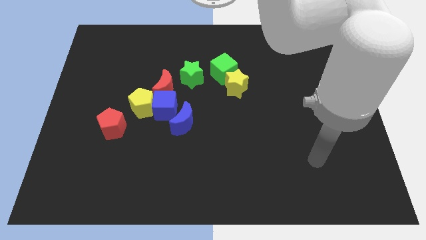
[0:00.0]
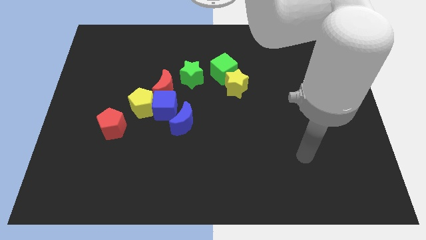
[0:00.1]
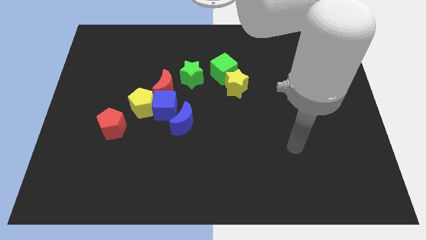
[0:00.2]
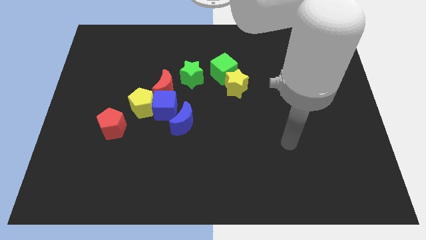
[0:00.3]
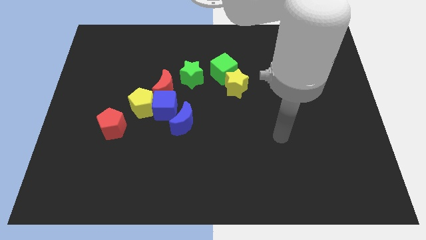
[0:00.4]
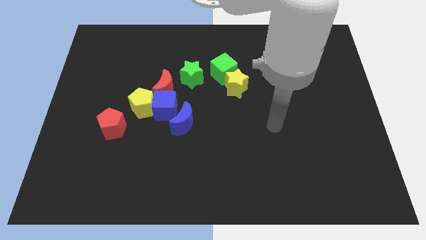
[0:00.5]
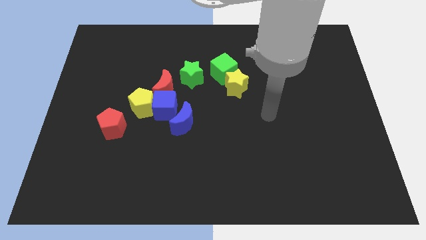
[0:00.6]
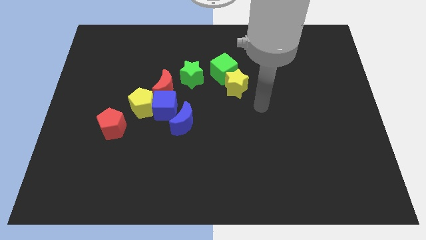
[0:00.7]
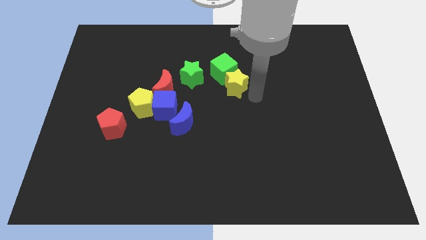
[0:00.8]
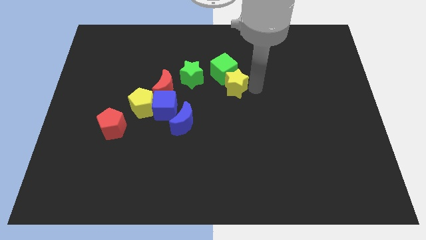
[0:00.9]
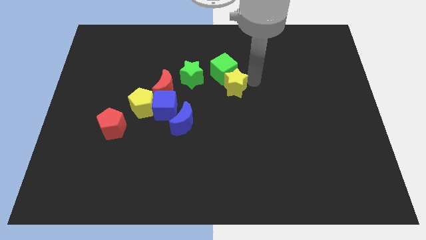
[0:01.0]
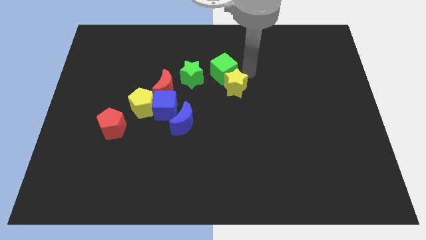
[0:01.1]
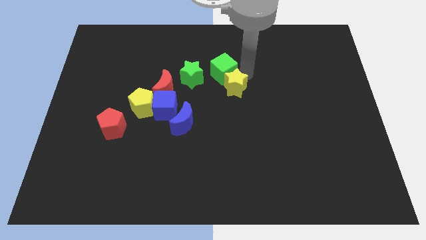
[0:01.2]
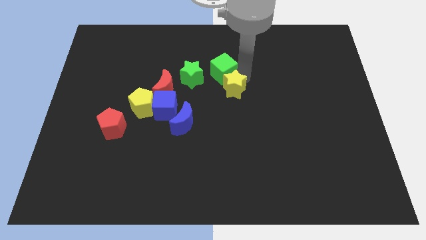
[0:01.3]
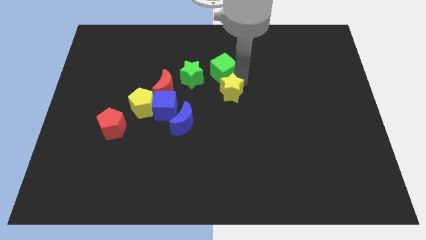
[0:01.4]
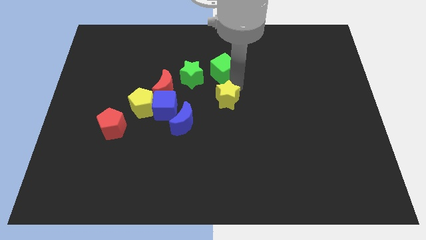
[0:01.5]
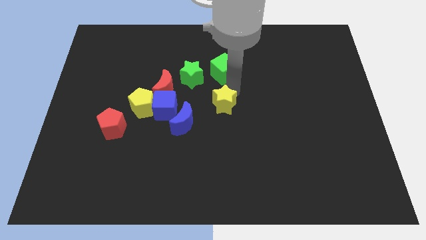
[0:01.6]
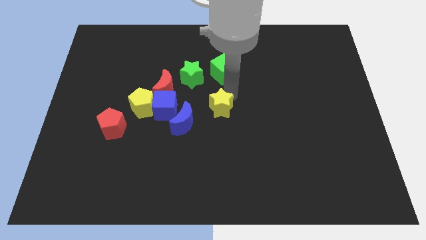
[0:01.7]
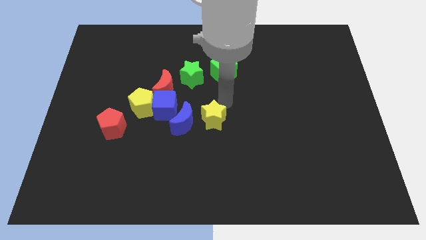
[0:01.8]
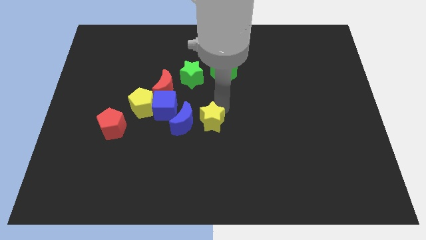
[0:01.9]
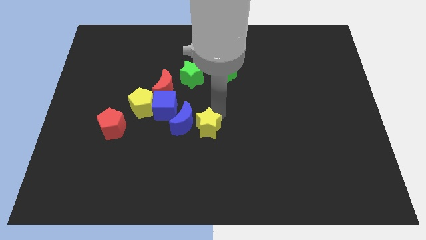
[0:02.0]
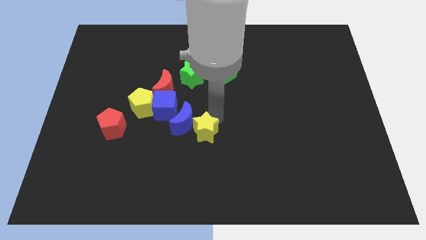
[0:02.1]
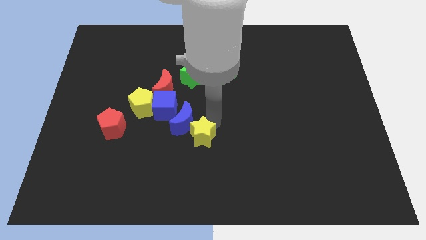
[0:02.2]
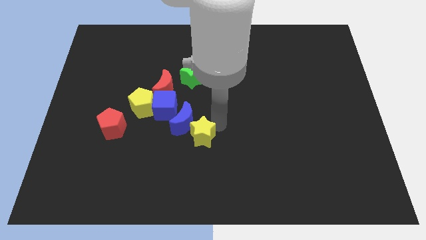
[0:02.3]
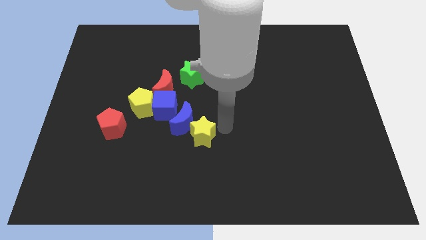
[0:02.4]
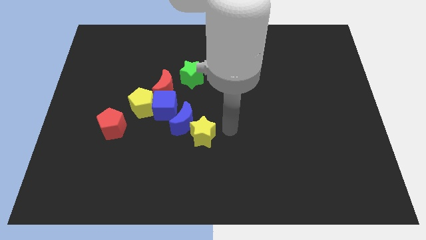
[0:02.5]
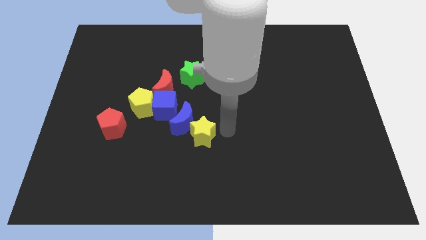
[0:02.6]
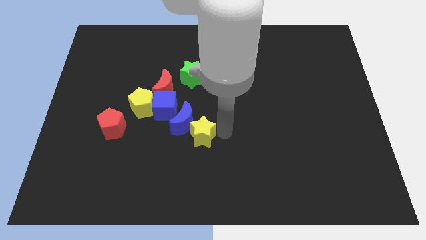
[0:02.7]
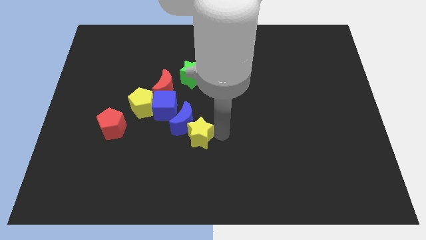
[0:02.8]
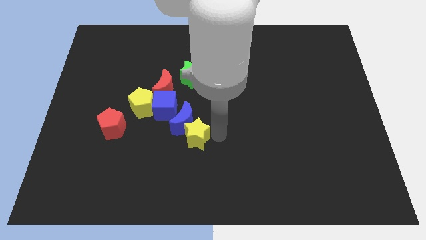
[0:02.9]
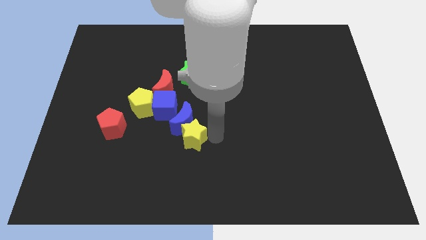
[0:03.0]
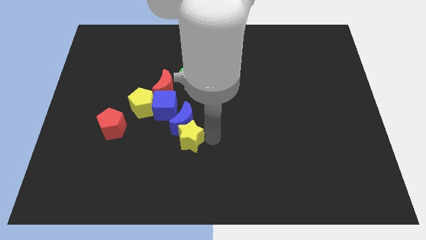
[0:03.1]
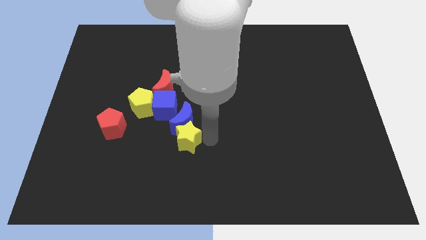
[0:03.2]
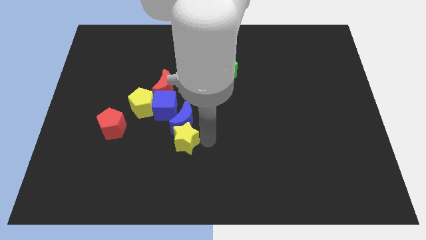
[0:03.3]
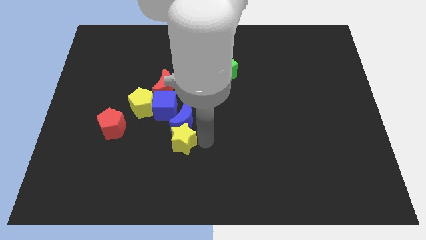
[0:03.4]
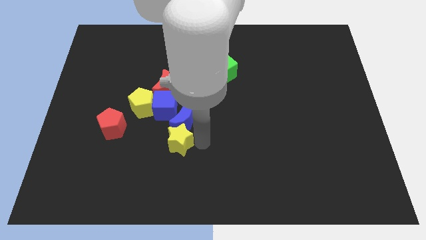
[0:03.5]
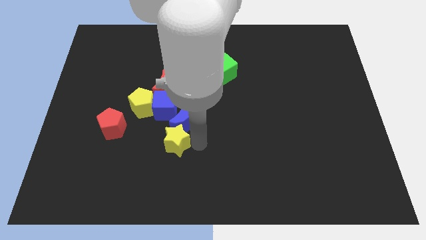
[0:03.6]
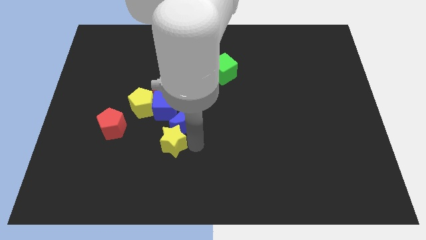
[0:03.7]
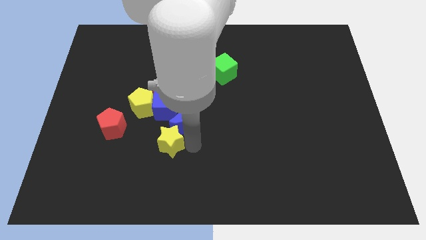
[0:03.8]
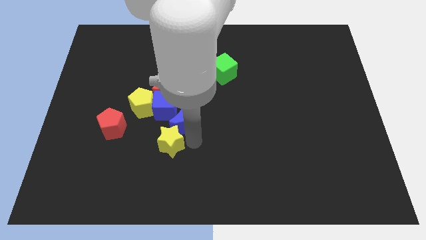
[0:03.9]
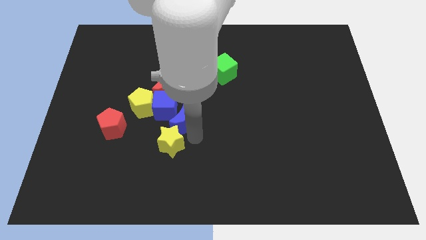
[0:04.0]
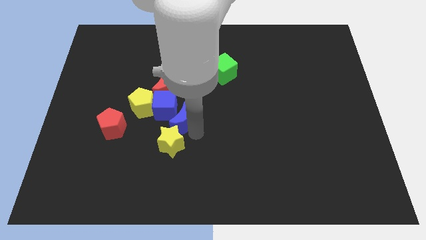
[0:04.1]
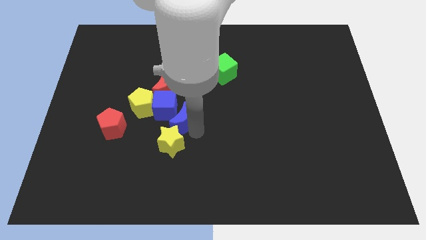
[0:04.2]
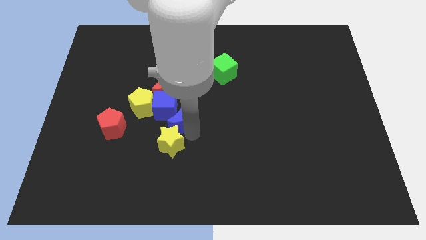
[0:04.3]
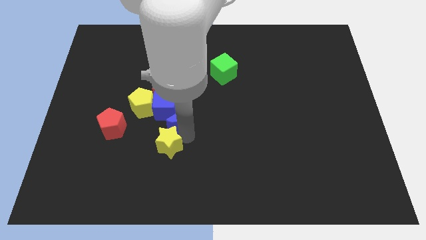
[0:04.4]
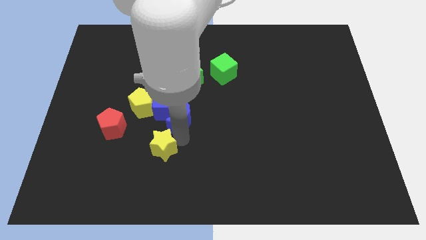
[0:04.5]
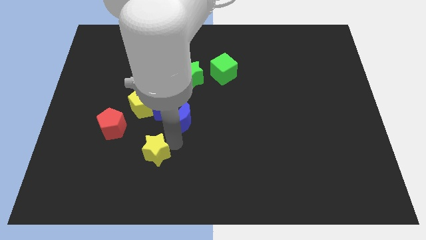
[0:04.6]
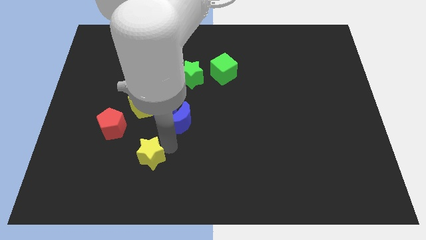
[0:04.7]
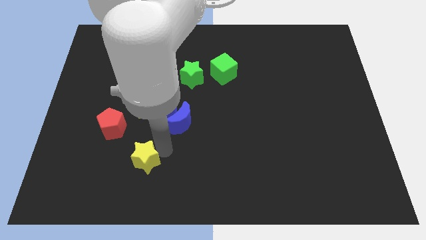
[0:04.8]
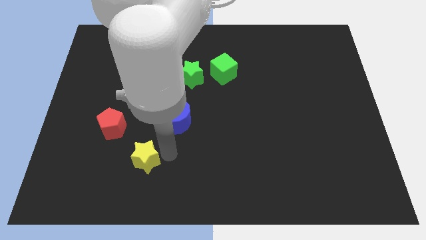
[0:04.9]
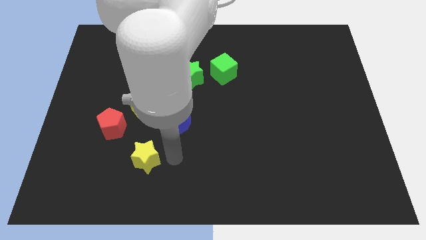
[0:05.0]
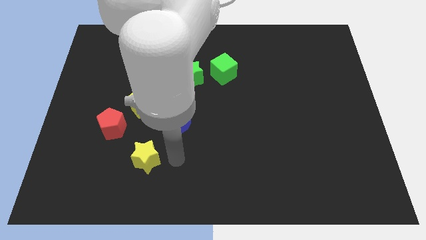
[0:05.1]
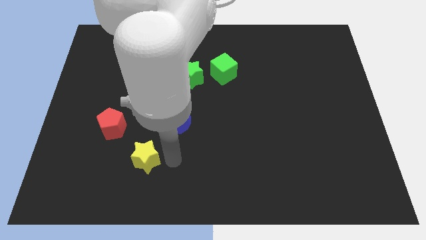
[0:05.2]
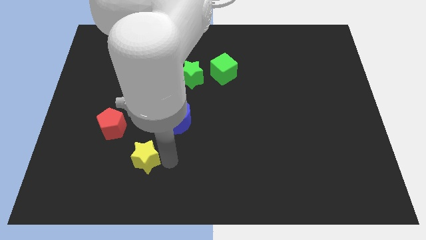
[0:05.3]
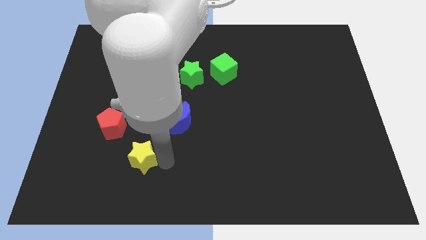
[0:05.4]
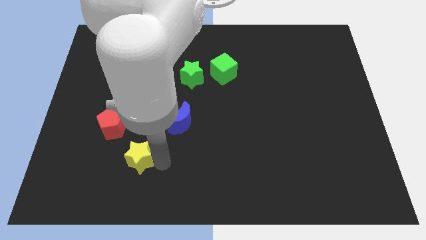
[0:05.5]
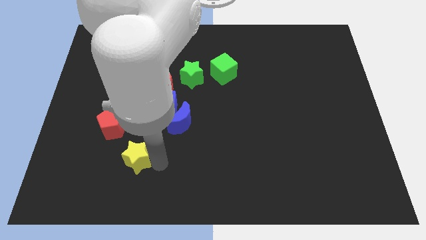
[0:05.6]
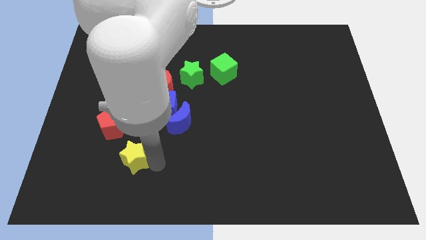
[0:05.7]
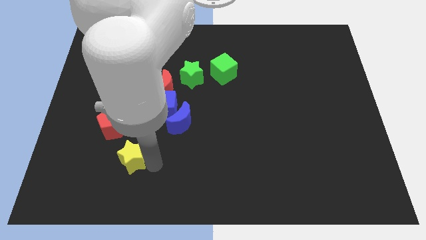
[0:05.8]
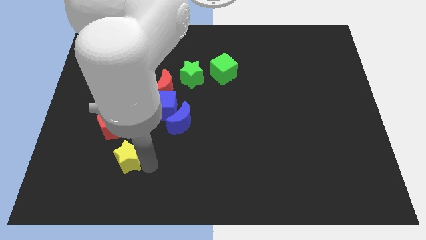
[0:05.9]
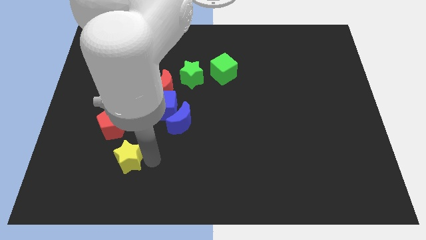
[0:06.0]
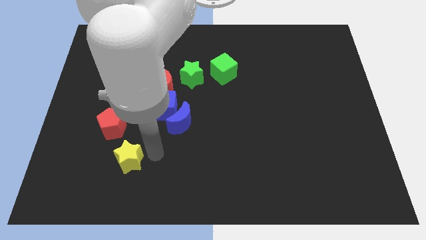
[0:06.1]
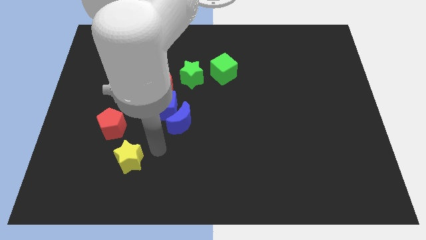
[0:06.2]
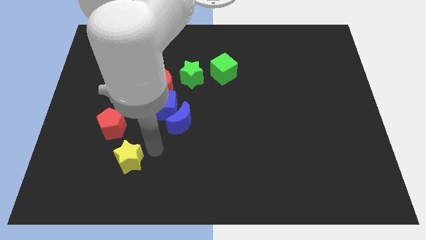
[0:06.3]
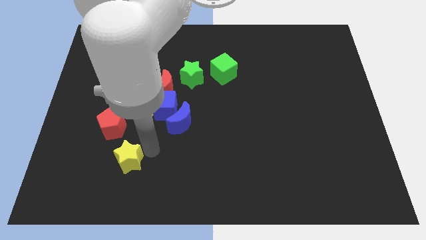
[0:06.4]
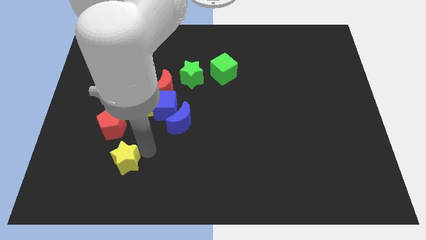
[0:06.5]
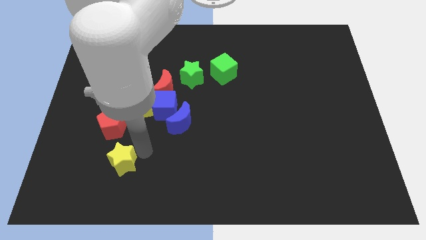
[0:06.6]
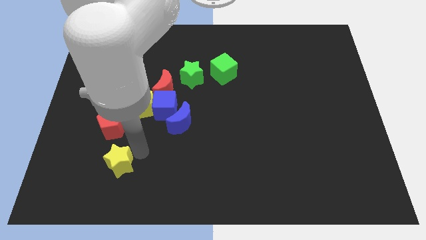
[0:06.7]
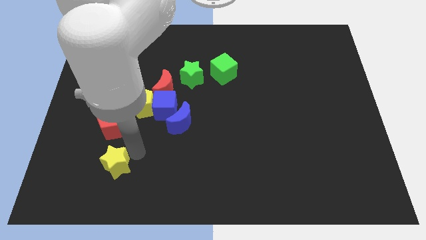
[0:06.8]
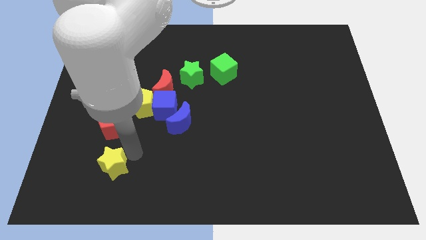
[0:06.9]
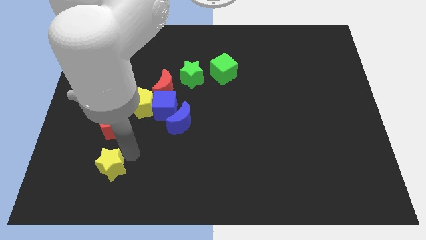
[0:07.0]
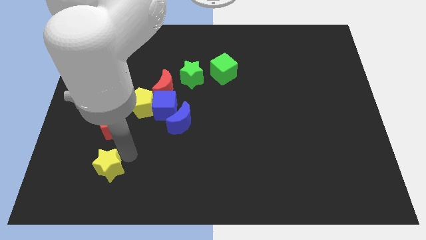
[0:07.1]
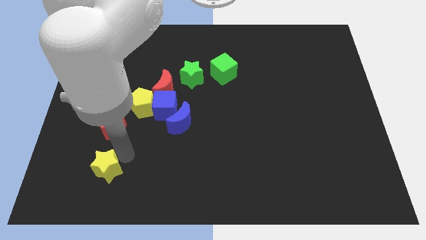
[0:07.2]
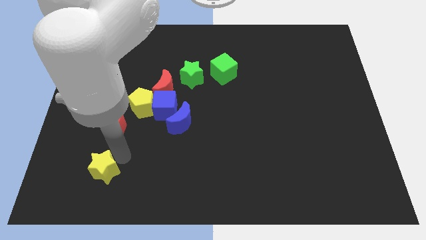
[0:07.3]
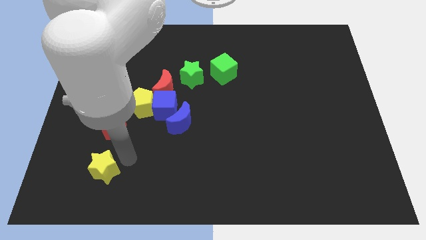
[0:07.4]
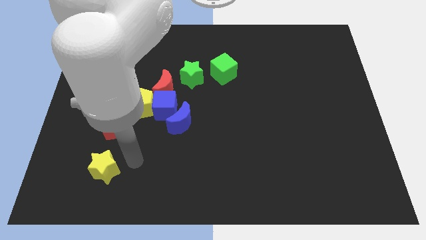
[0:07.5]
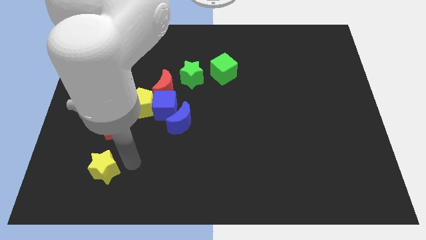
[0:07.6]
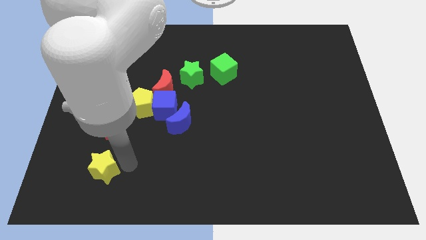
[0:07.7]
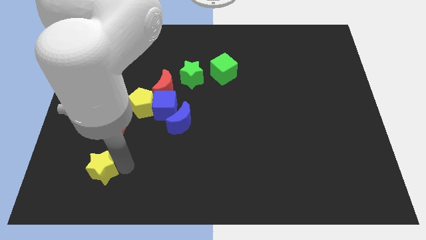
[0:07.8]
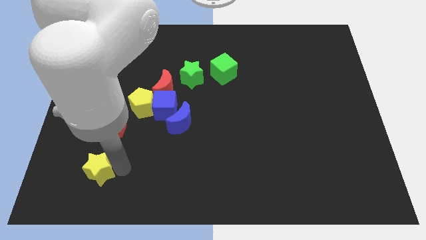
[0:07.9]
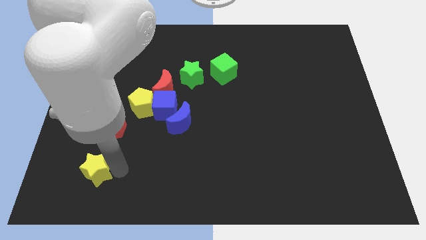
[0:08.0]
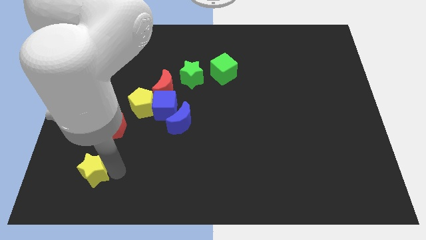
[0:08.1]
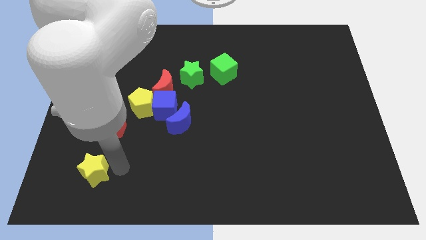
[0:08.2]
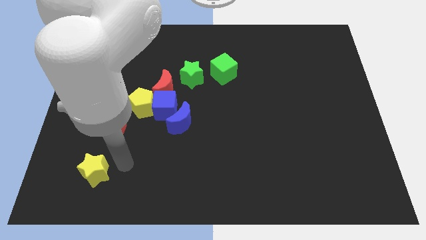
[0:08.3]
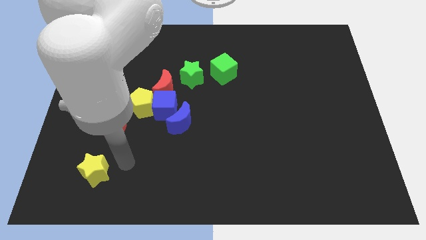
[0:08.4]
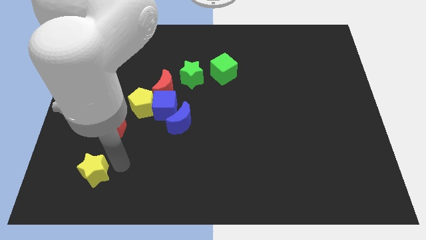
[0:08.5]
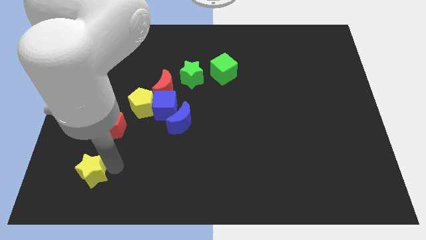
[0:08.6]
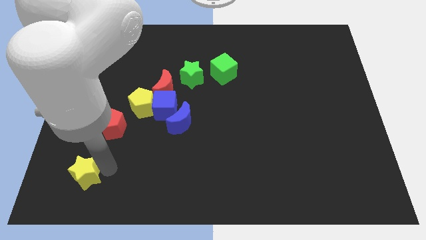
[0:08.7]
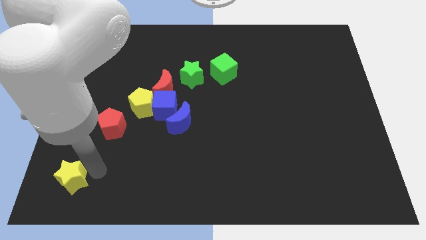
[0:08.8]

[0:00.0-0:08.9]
slide the yellow star to the lower left corner
